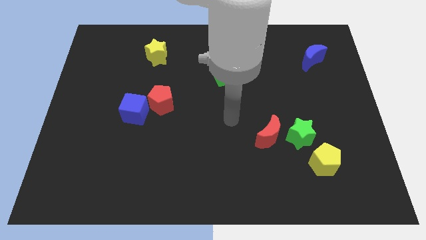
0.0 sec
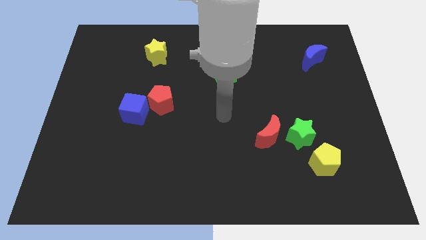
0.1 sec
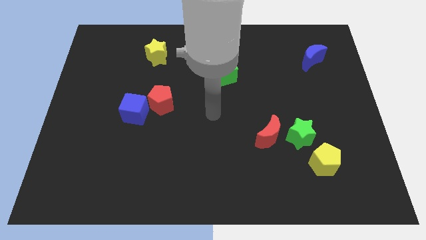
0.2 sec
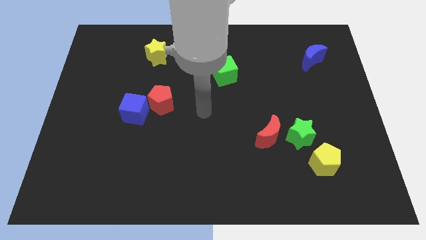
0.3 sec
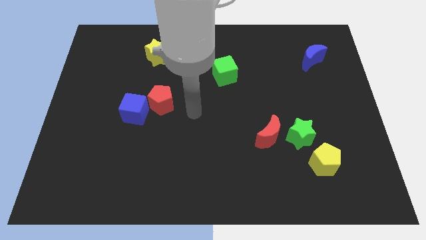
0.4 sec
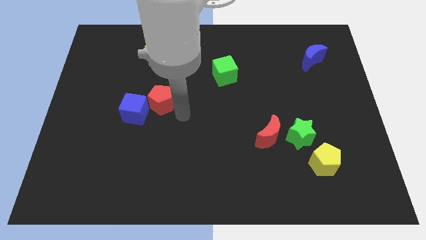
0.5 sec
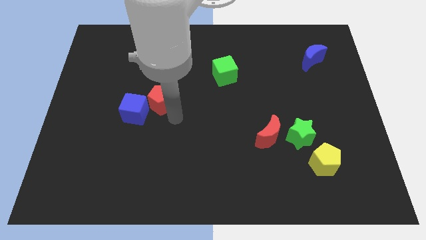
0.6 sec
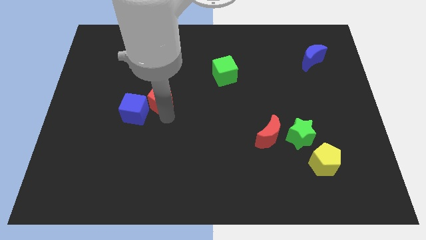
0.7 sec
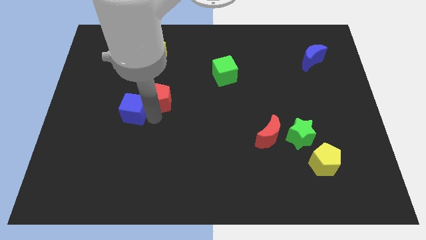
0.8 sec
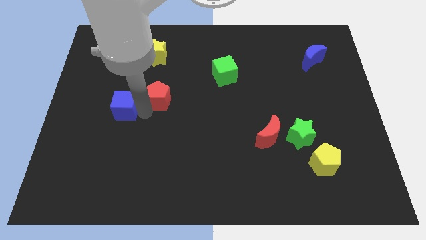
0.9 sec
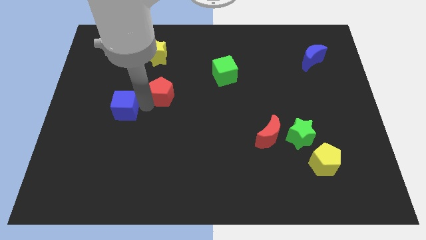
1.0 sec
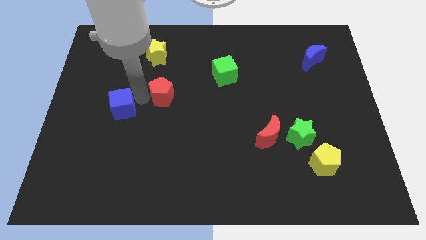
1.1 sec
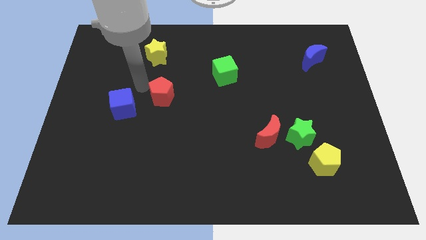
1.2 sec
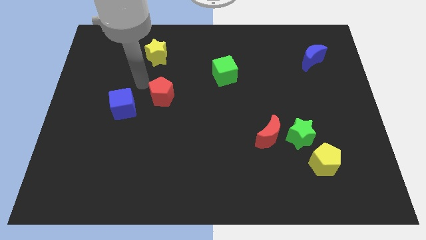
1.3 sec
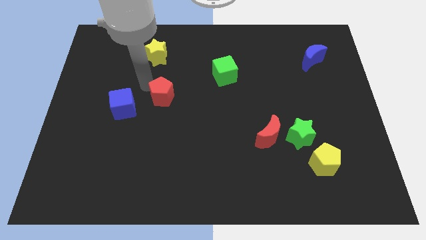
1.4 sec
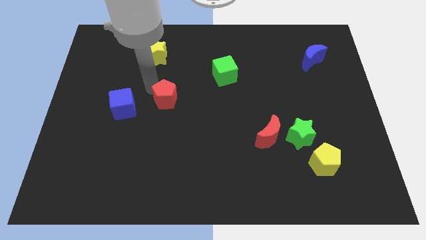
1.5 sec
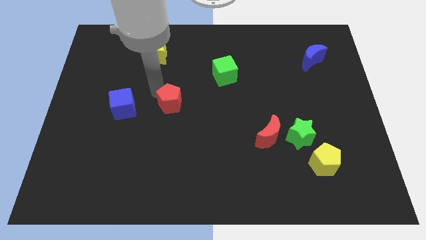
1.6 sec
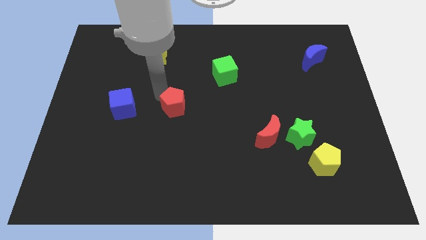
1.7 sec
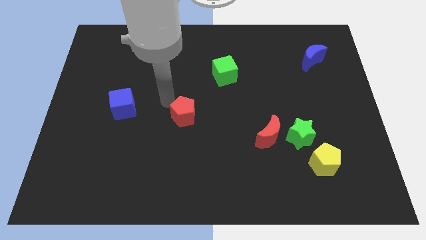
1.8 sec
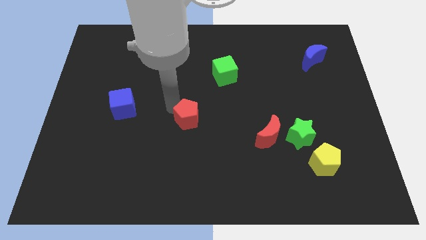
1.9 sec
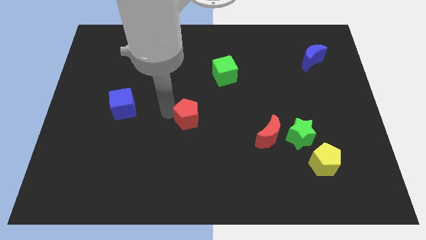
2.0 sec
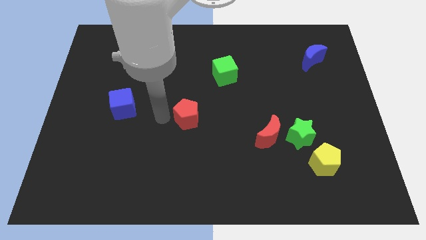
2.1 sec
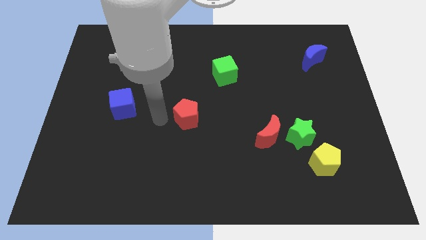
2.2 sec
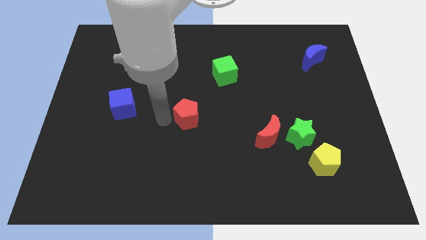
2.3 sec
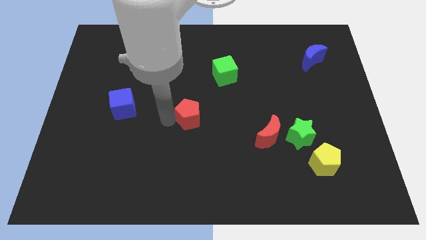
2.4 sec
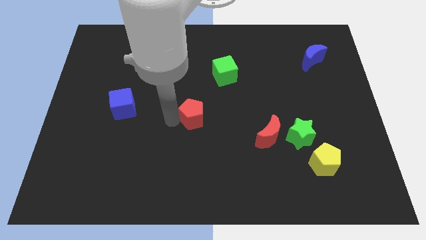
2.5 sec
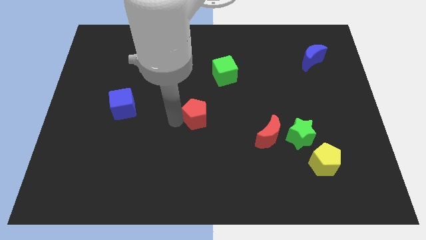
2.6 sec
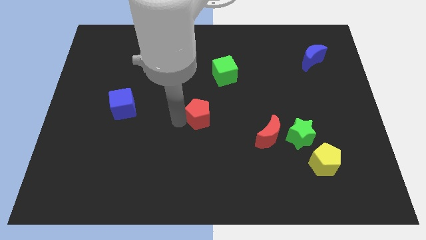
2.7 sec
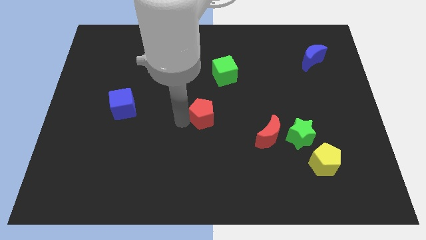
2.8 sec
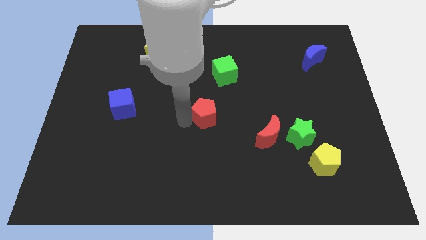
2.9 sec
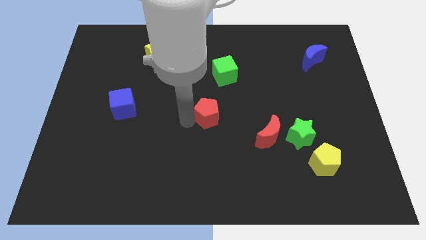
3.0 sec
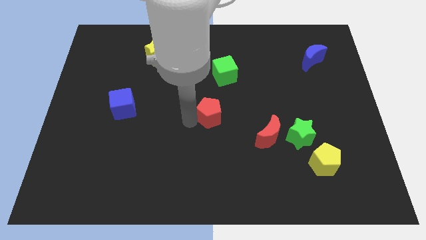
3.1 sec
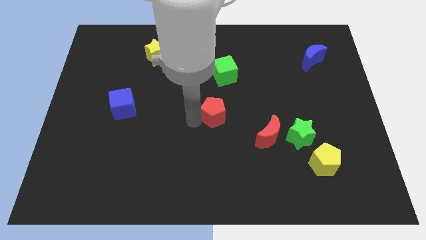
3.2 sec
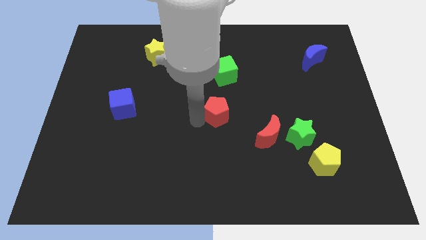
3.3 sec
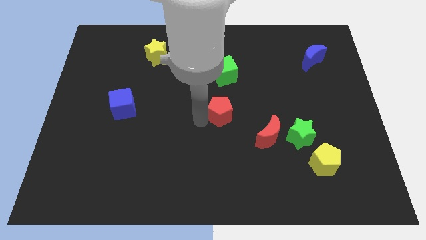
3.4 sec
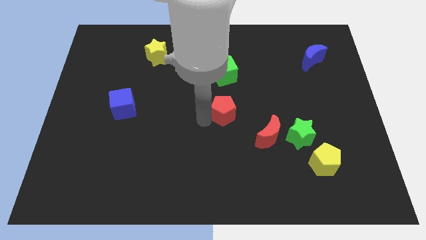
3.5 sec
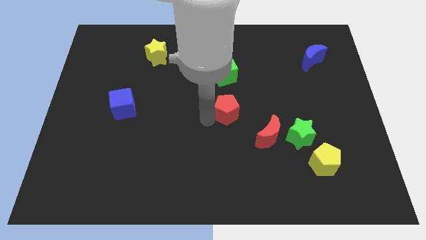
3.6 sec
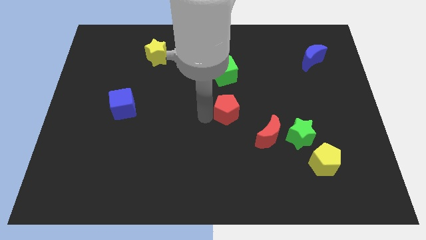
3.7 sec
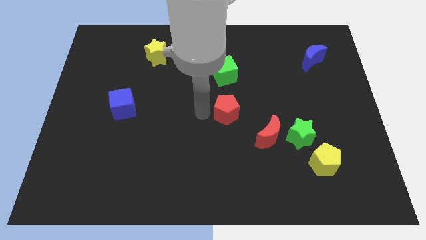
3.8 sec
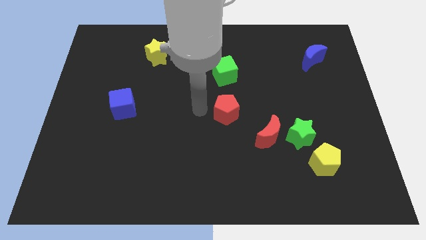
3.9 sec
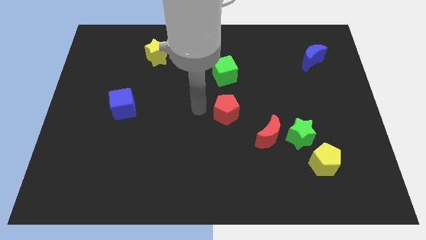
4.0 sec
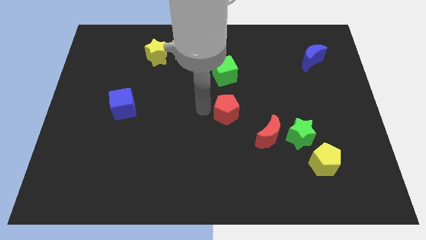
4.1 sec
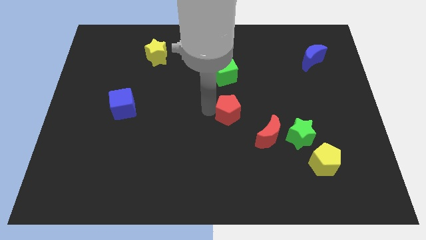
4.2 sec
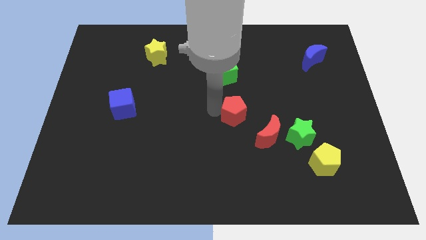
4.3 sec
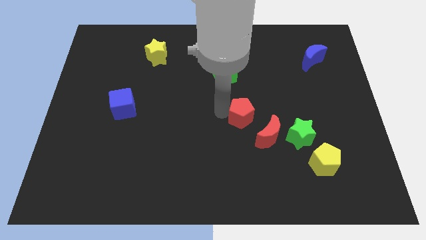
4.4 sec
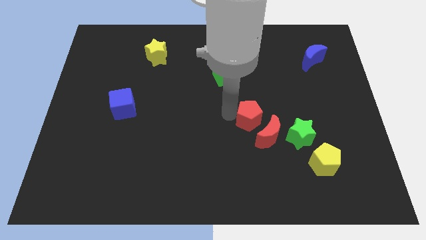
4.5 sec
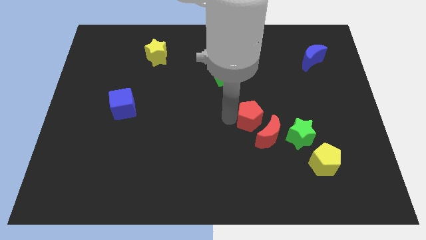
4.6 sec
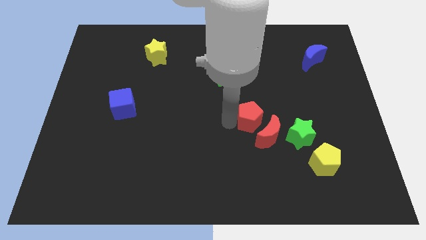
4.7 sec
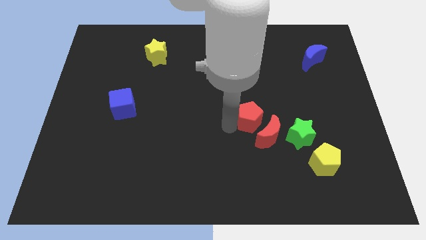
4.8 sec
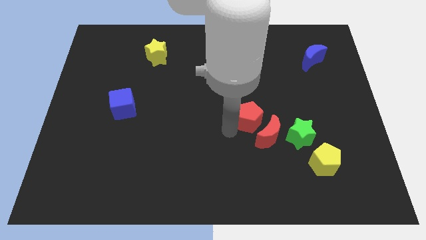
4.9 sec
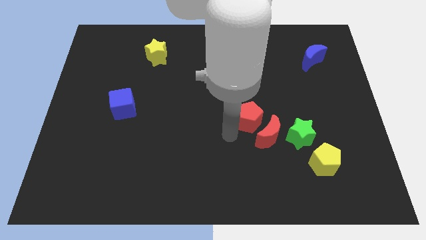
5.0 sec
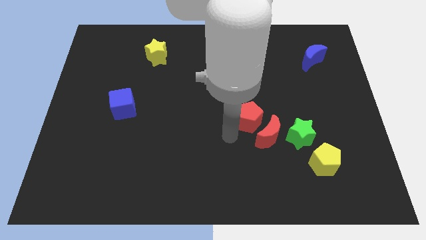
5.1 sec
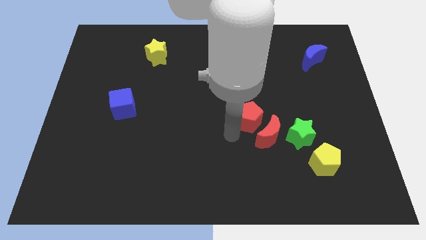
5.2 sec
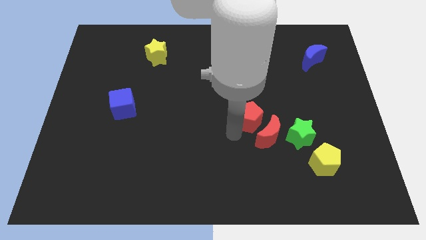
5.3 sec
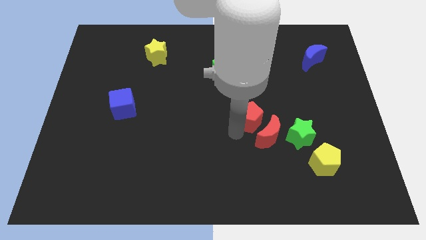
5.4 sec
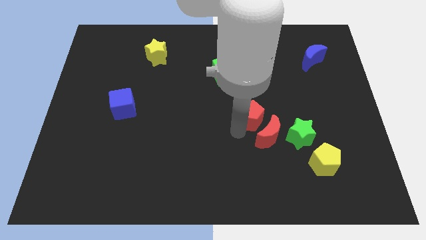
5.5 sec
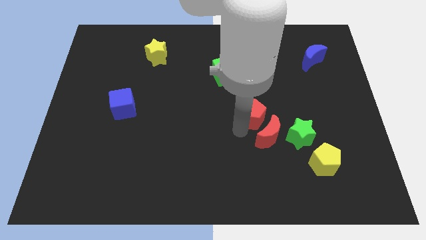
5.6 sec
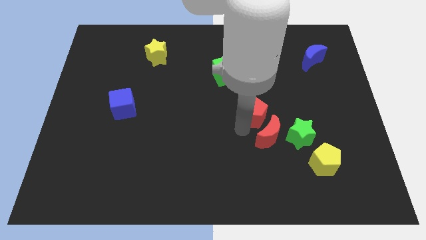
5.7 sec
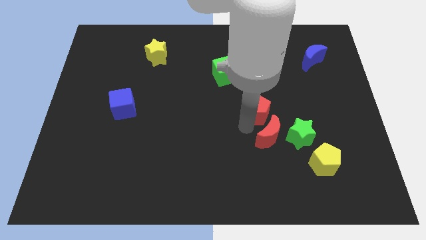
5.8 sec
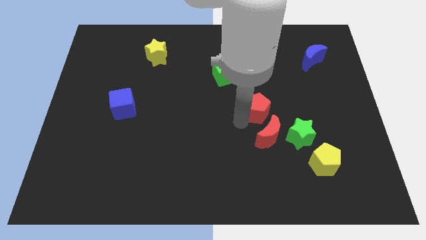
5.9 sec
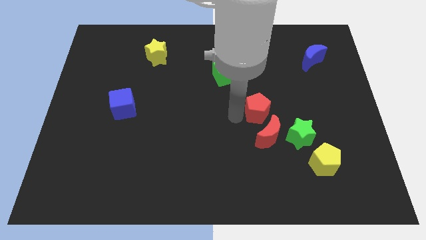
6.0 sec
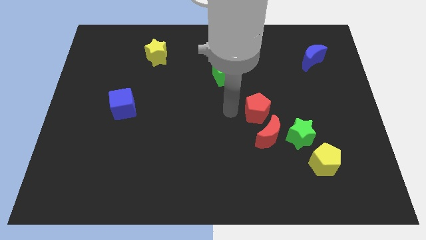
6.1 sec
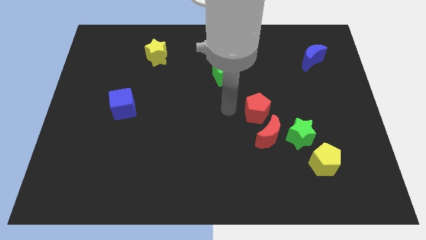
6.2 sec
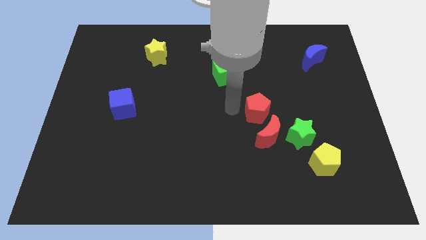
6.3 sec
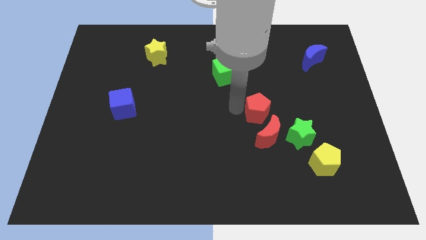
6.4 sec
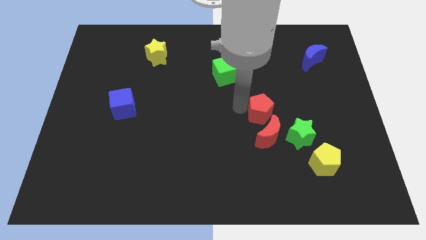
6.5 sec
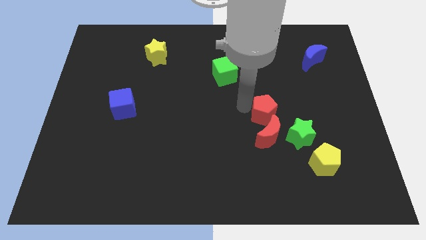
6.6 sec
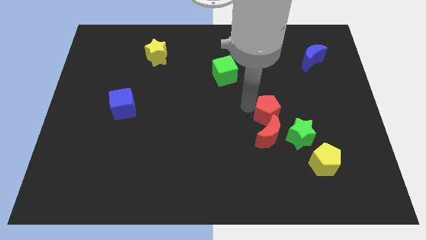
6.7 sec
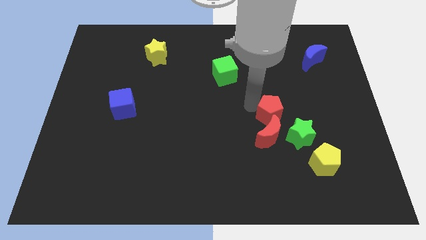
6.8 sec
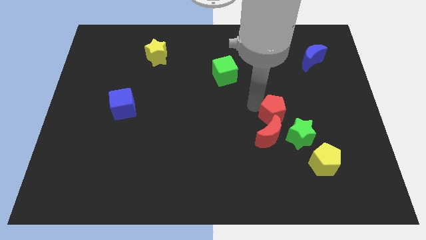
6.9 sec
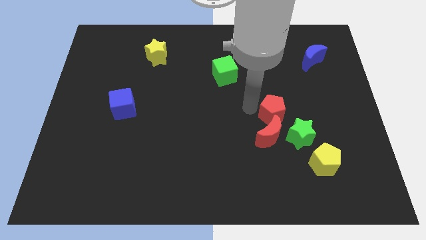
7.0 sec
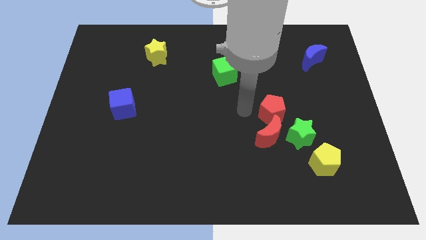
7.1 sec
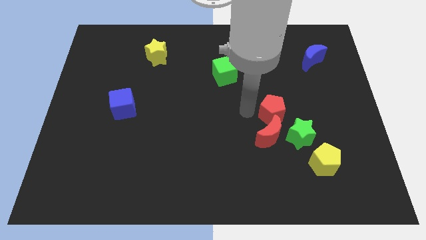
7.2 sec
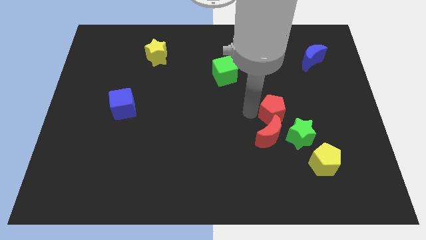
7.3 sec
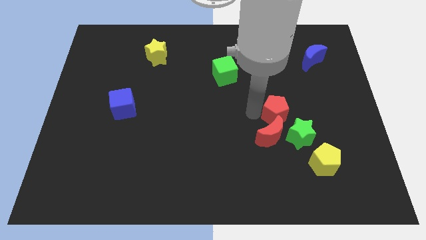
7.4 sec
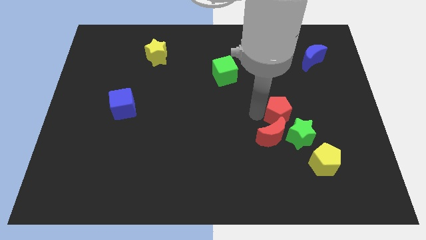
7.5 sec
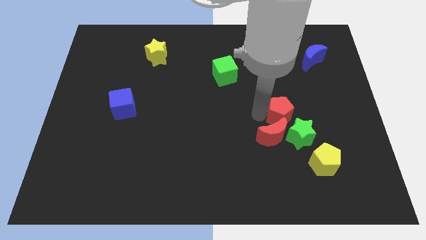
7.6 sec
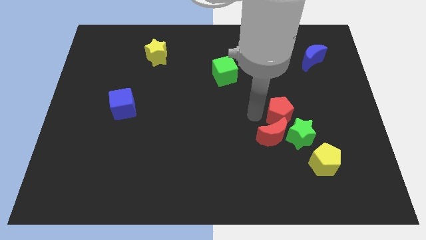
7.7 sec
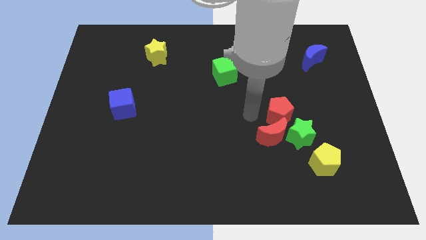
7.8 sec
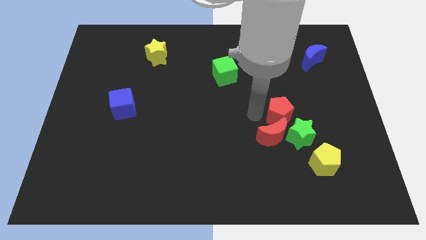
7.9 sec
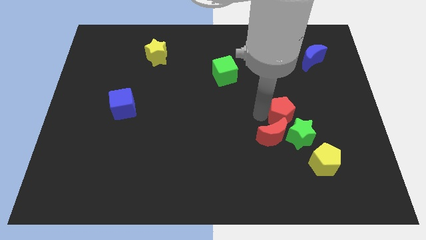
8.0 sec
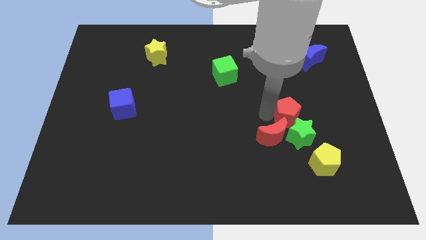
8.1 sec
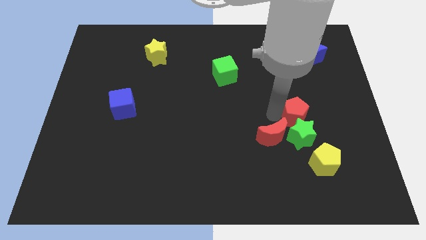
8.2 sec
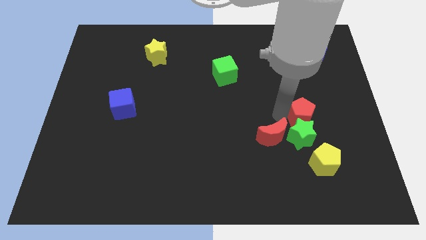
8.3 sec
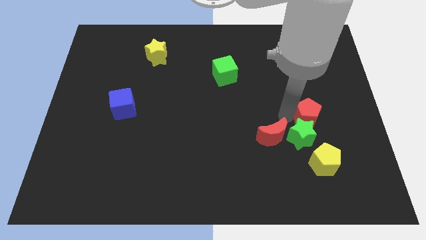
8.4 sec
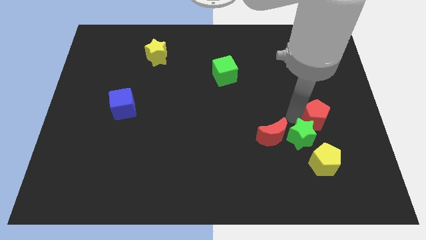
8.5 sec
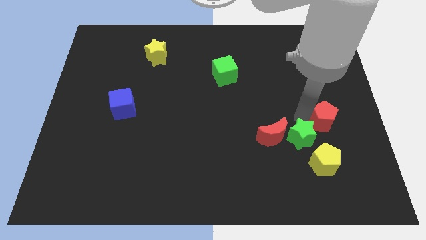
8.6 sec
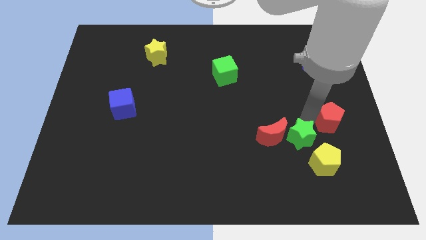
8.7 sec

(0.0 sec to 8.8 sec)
move the red pentagon to the center right
